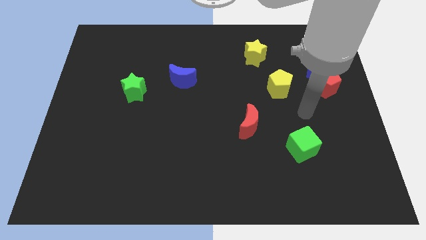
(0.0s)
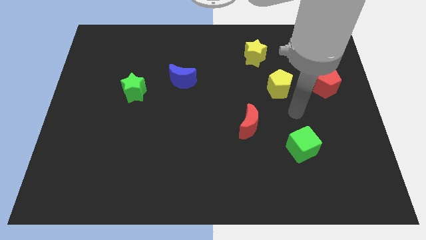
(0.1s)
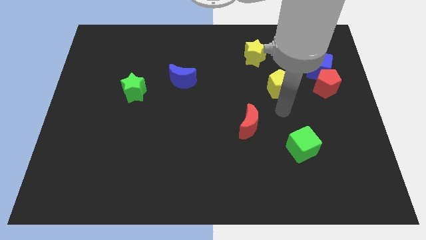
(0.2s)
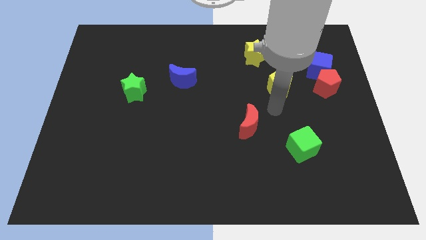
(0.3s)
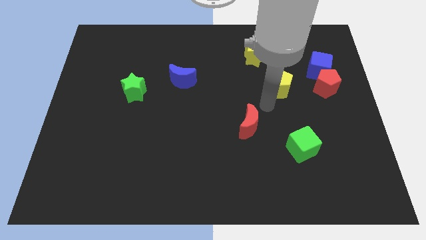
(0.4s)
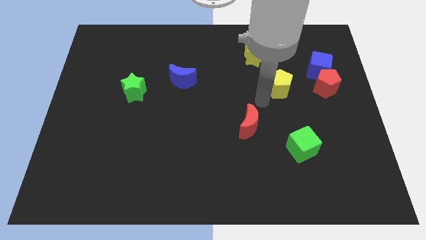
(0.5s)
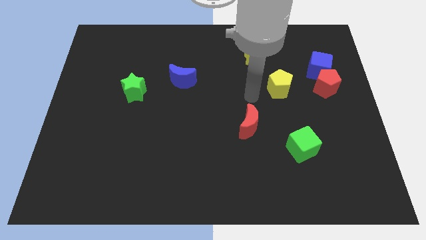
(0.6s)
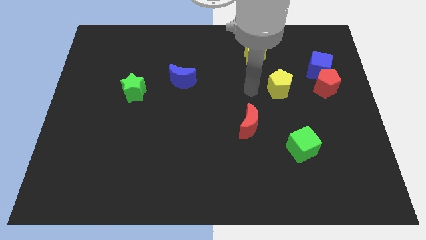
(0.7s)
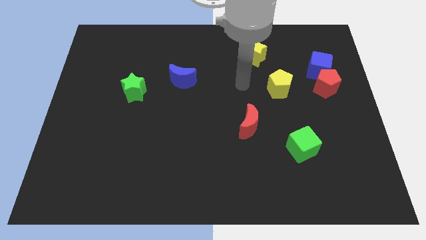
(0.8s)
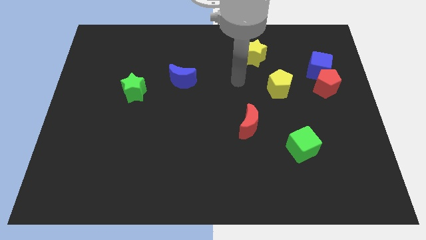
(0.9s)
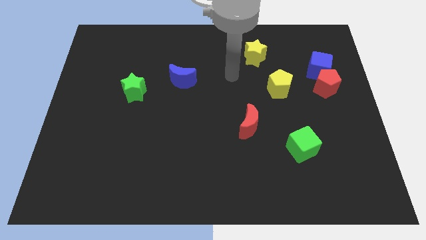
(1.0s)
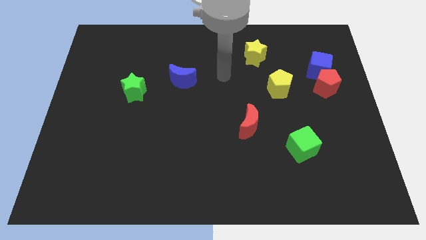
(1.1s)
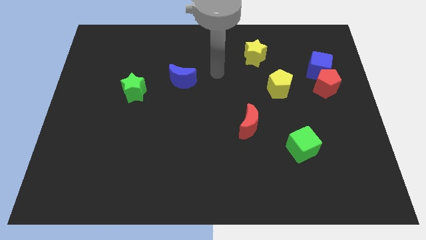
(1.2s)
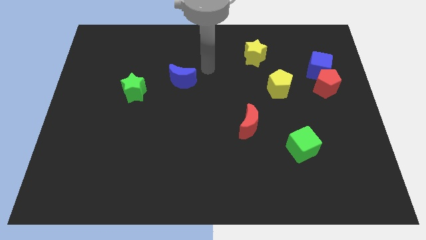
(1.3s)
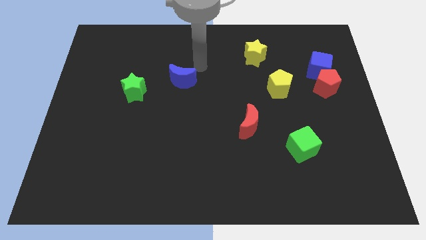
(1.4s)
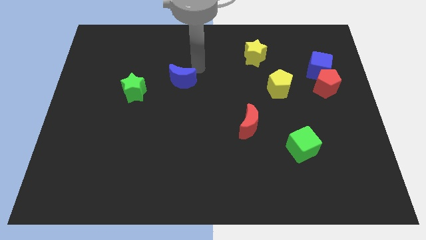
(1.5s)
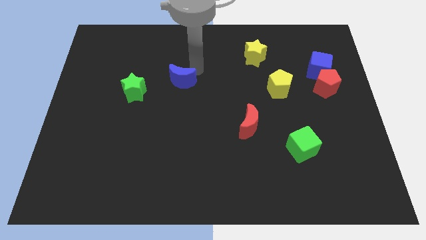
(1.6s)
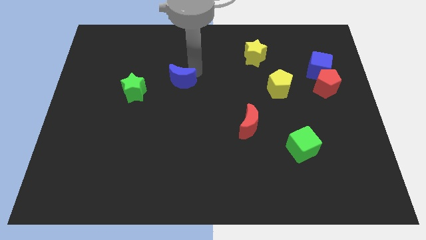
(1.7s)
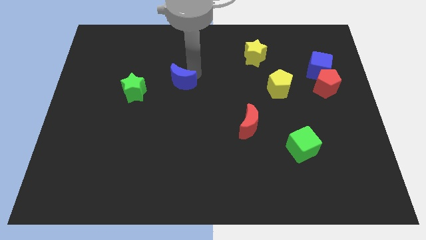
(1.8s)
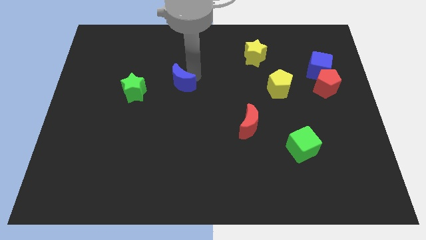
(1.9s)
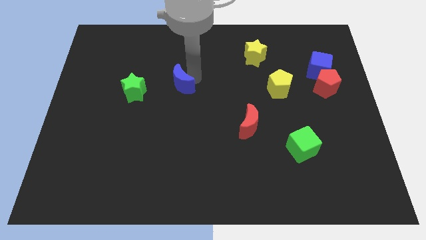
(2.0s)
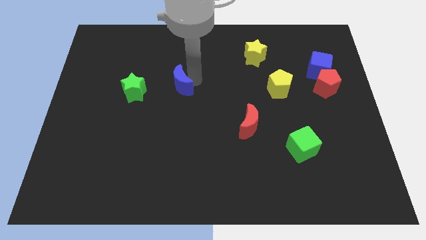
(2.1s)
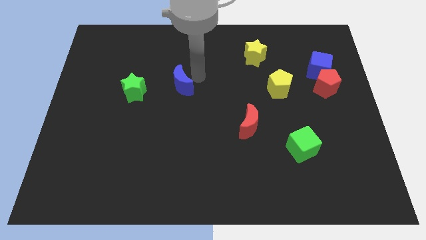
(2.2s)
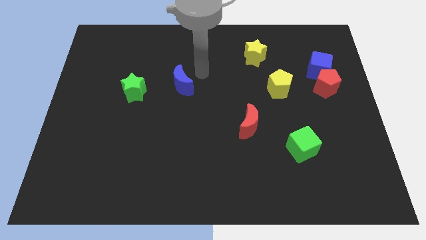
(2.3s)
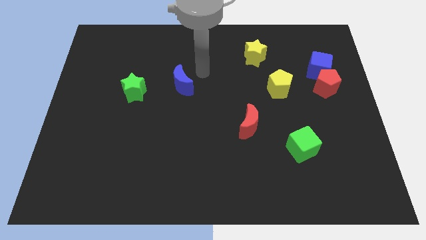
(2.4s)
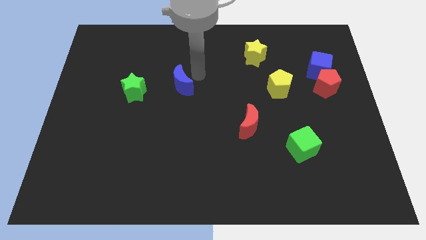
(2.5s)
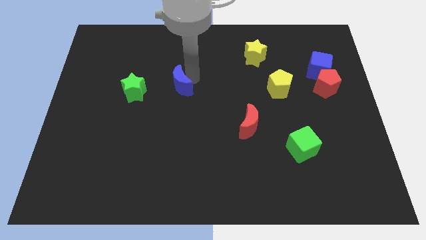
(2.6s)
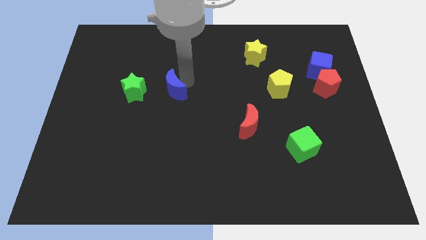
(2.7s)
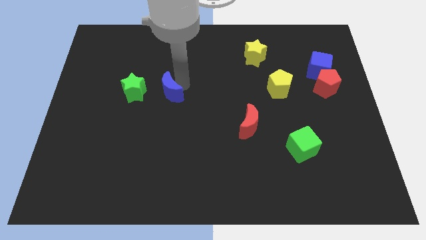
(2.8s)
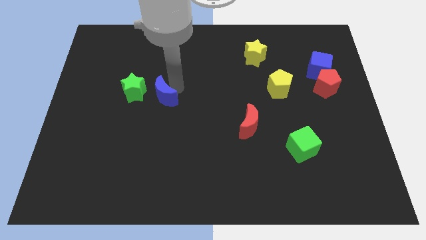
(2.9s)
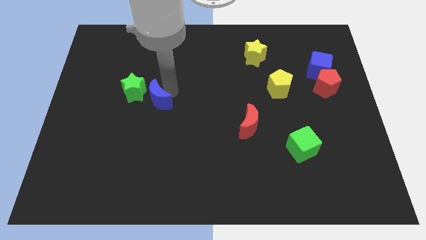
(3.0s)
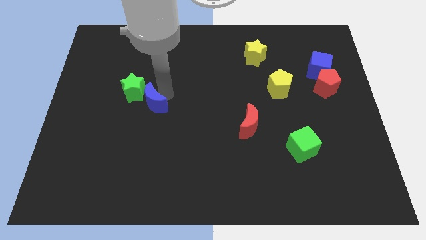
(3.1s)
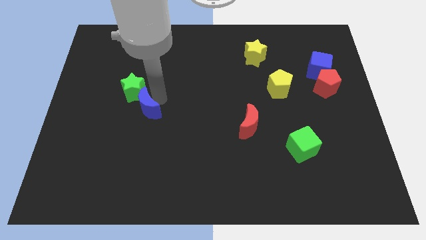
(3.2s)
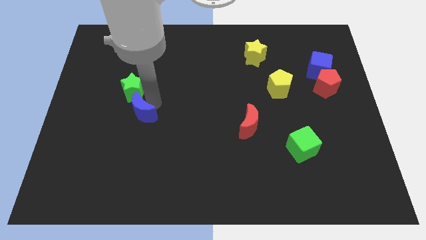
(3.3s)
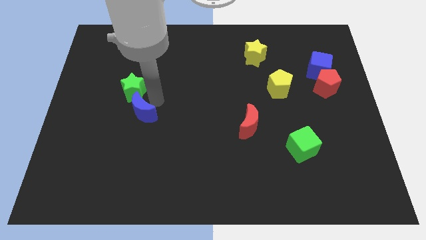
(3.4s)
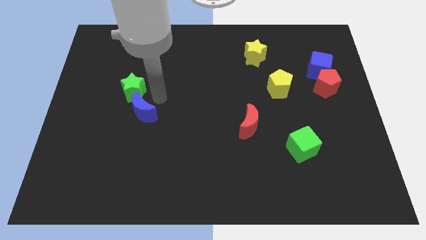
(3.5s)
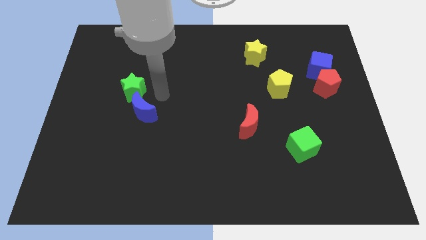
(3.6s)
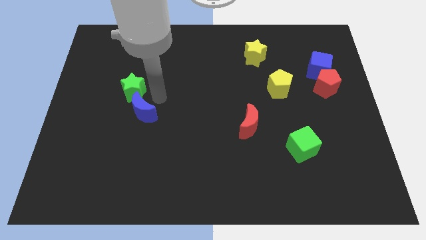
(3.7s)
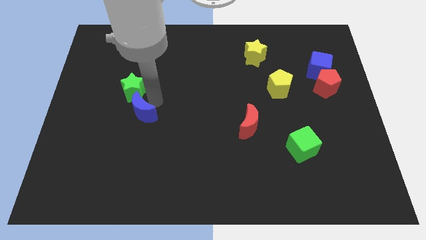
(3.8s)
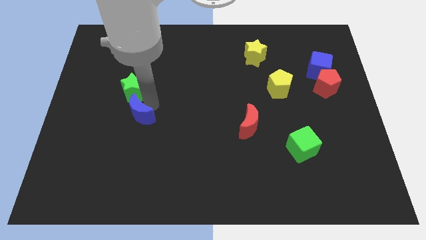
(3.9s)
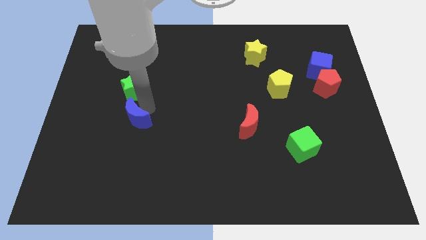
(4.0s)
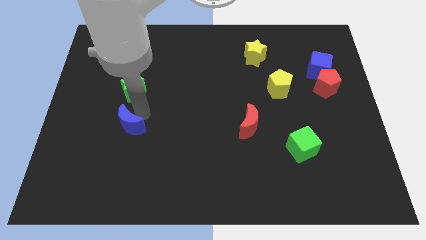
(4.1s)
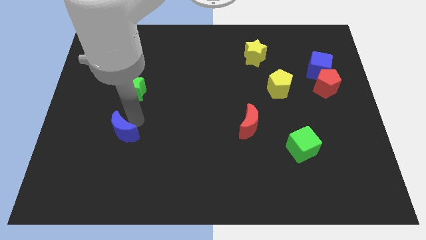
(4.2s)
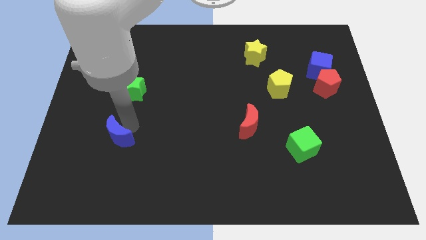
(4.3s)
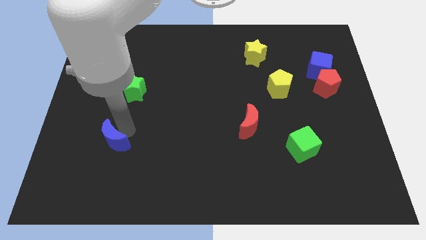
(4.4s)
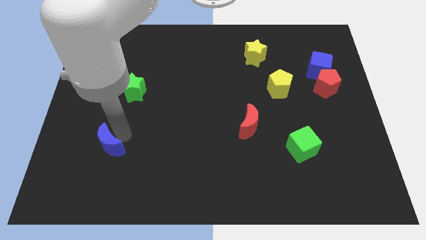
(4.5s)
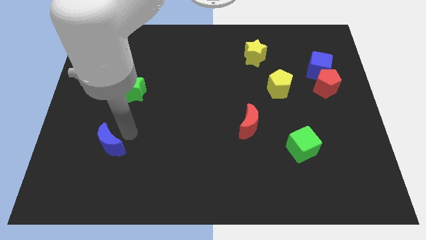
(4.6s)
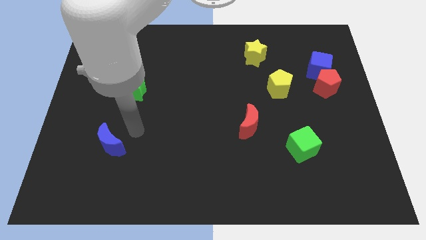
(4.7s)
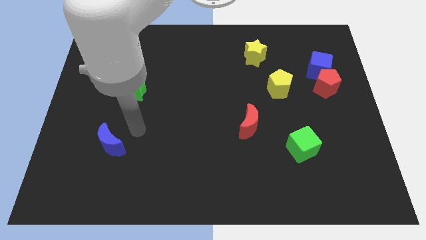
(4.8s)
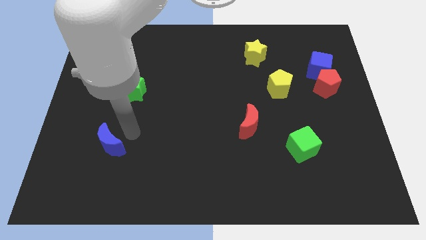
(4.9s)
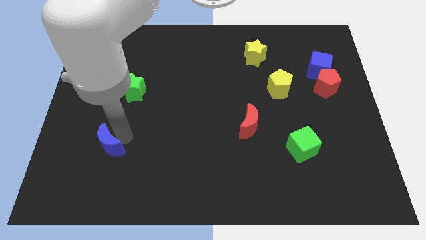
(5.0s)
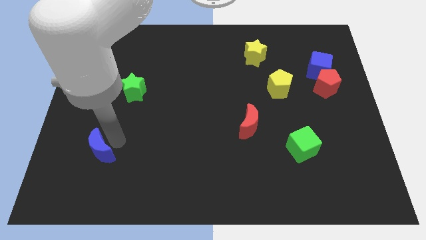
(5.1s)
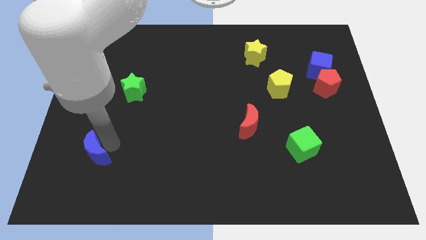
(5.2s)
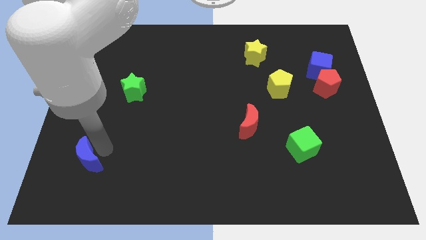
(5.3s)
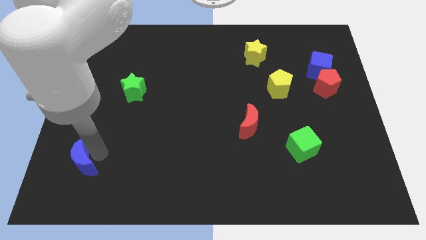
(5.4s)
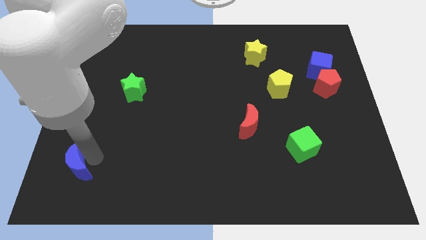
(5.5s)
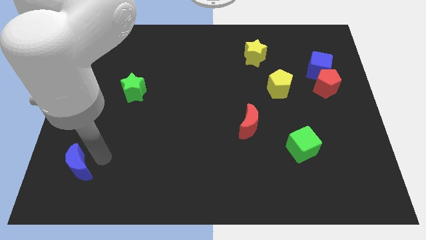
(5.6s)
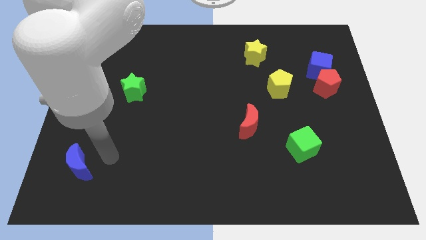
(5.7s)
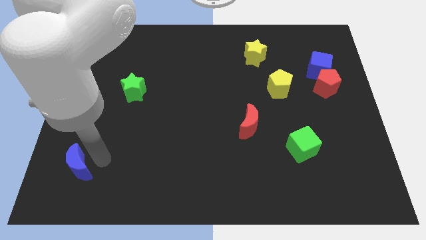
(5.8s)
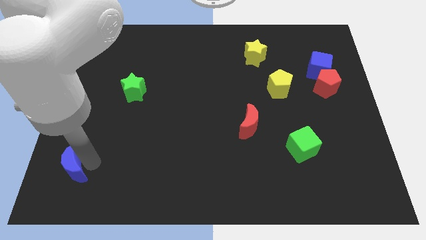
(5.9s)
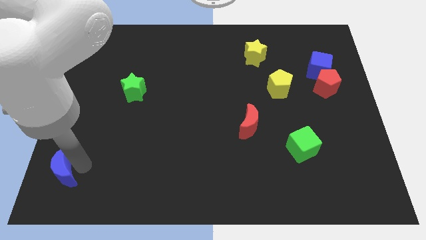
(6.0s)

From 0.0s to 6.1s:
slide the blue moon to the lower left corner
